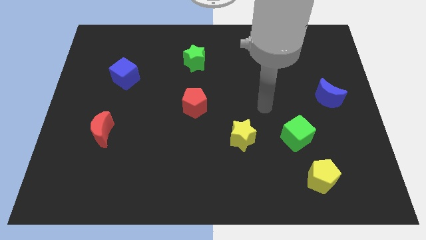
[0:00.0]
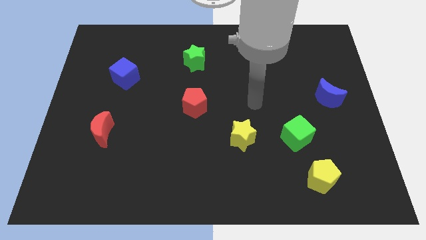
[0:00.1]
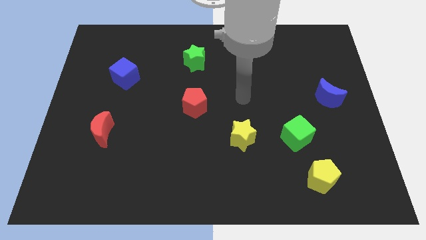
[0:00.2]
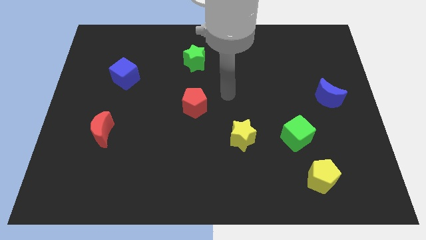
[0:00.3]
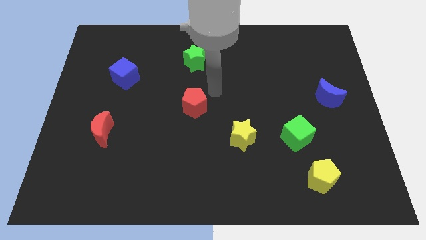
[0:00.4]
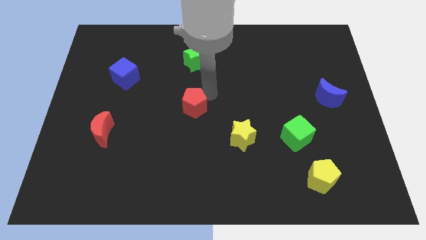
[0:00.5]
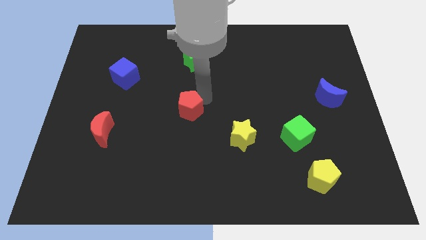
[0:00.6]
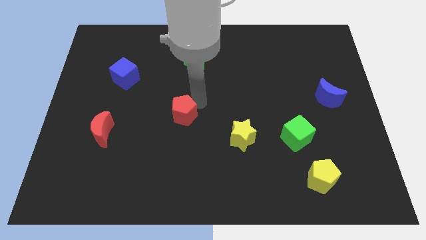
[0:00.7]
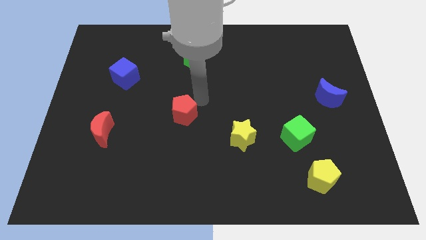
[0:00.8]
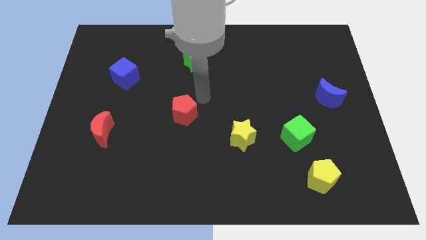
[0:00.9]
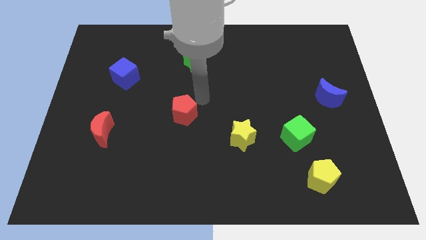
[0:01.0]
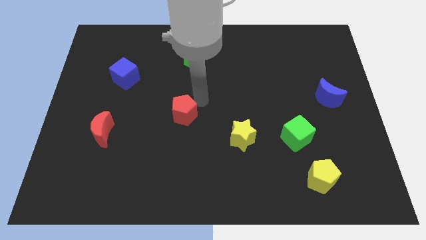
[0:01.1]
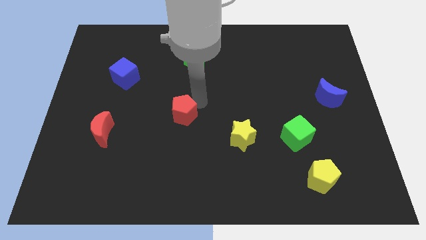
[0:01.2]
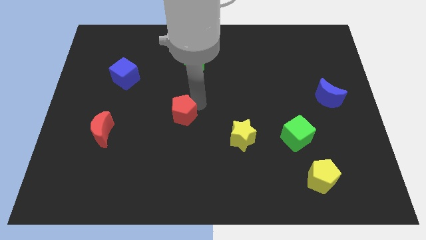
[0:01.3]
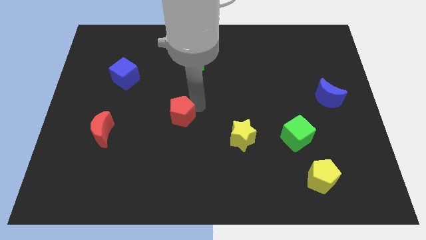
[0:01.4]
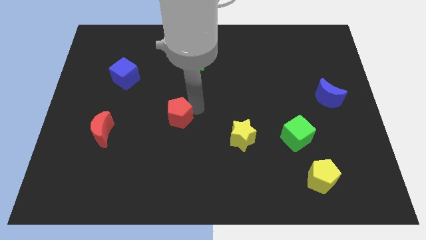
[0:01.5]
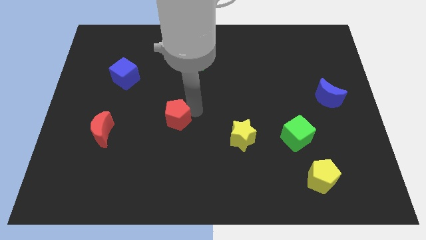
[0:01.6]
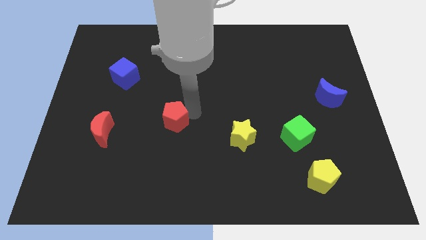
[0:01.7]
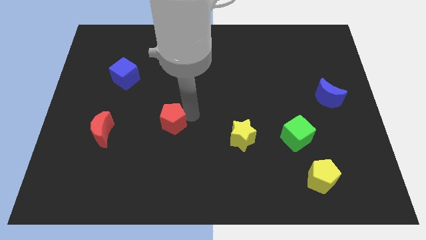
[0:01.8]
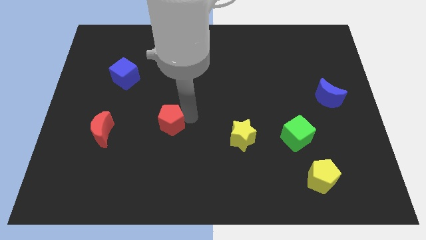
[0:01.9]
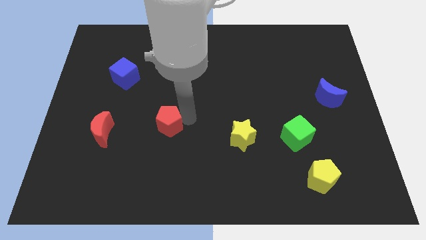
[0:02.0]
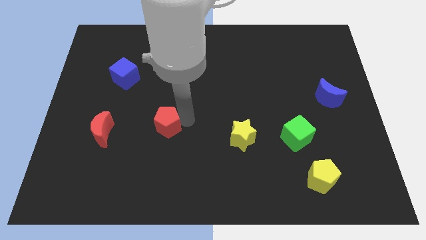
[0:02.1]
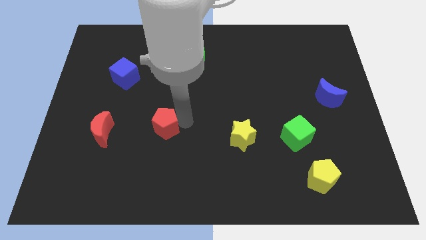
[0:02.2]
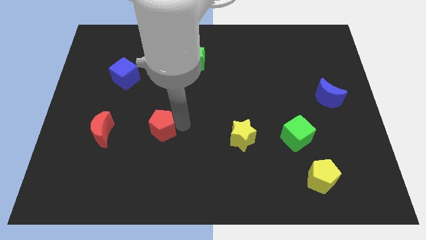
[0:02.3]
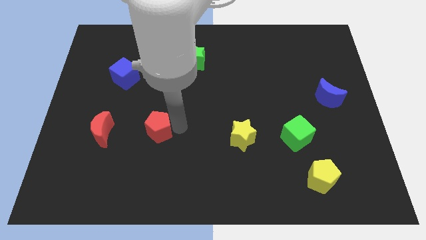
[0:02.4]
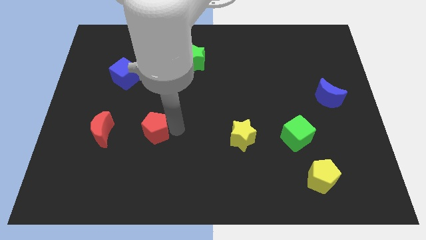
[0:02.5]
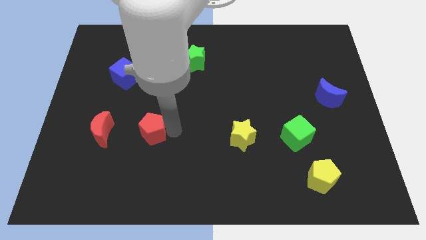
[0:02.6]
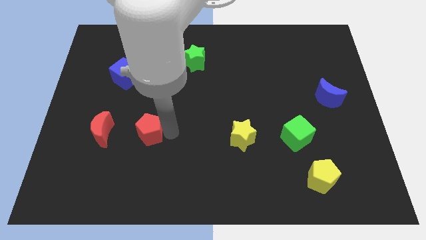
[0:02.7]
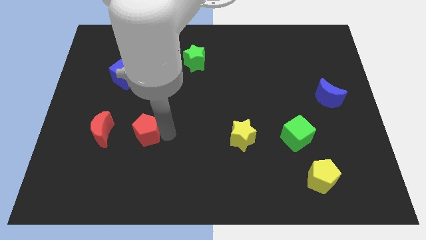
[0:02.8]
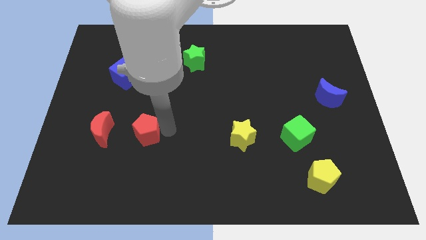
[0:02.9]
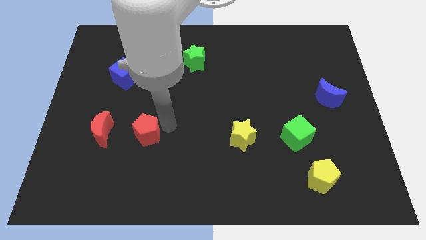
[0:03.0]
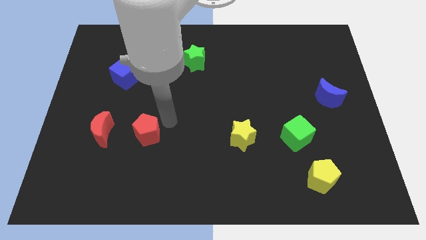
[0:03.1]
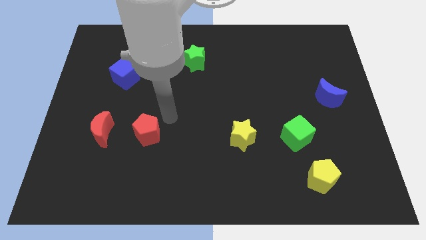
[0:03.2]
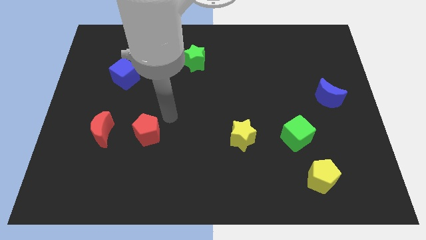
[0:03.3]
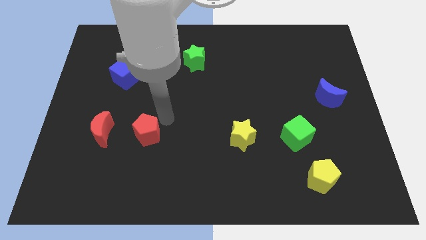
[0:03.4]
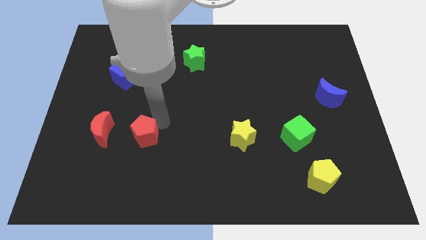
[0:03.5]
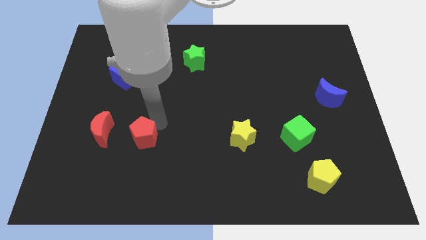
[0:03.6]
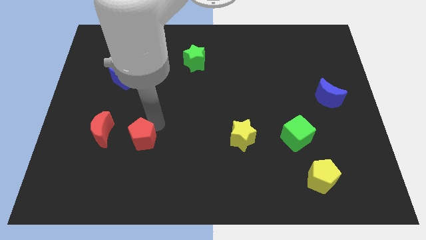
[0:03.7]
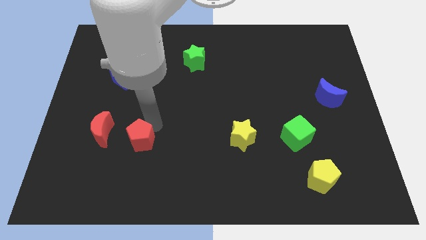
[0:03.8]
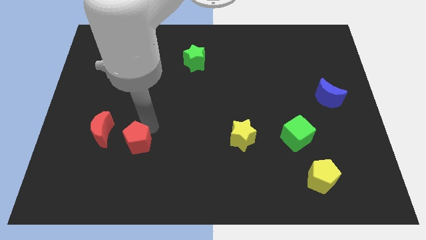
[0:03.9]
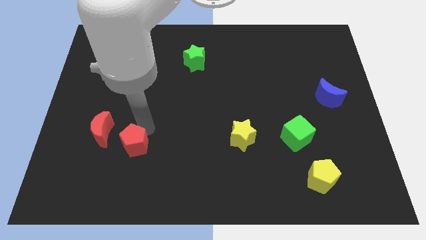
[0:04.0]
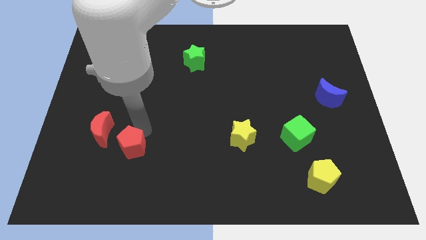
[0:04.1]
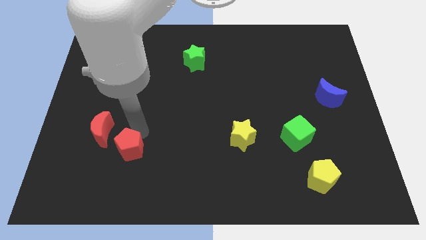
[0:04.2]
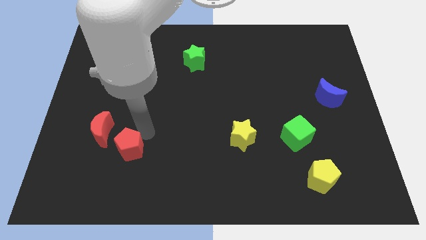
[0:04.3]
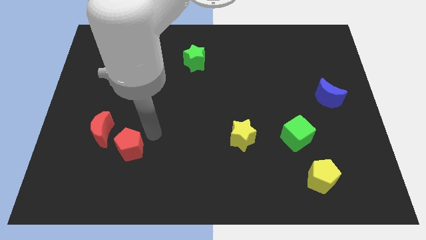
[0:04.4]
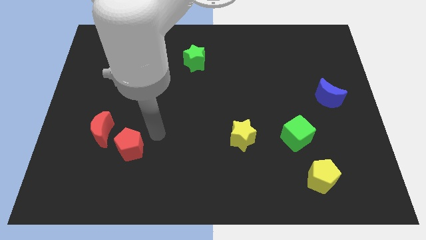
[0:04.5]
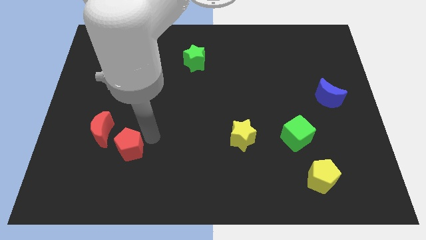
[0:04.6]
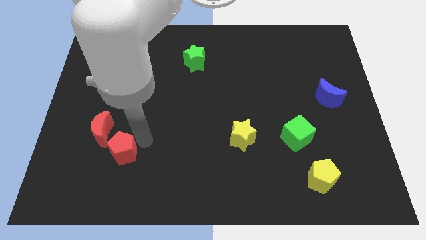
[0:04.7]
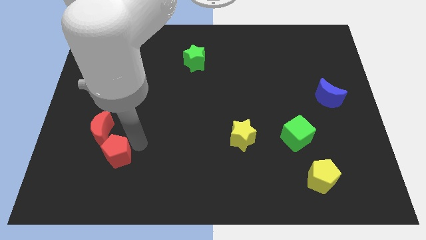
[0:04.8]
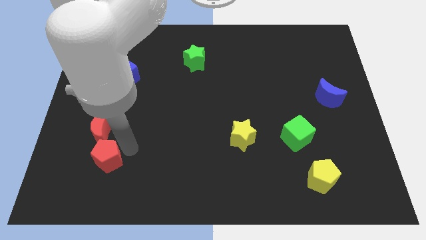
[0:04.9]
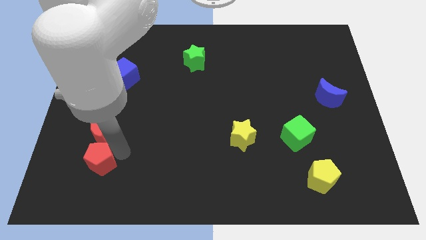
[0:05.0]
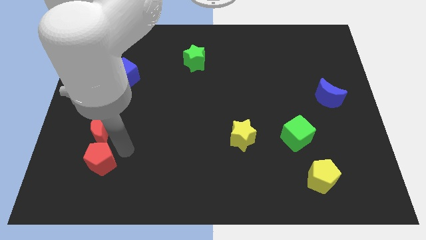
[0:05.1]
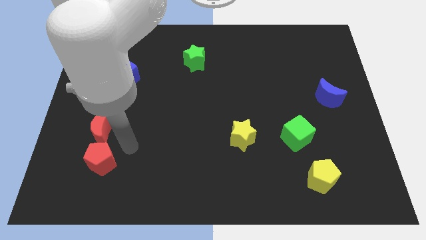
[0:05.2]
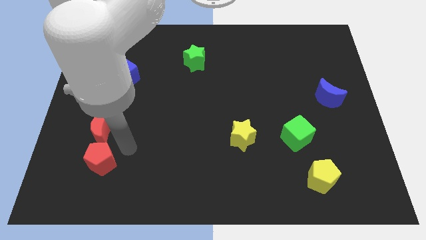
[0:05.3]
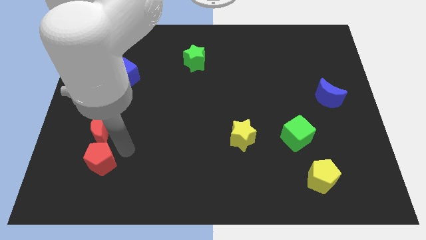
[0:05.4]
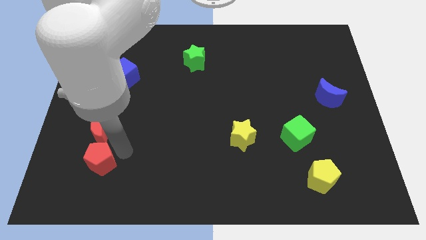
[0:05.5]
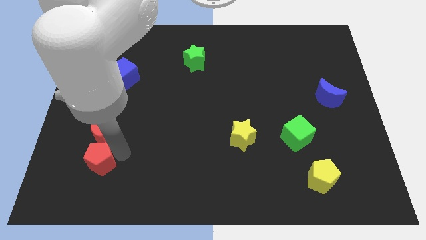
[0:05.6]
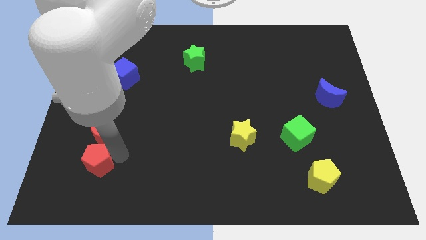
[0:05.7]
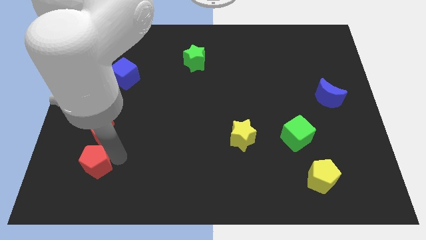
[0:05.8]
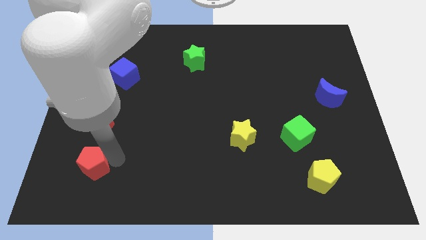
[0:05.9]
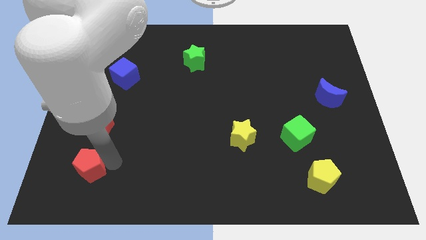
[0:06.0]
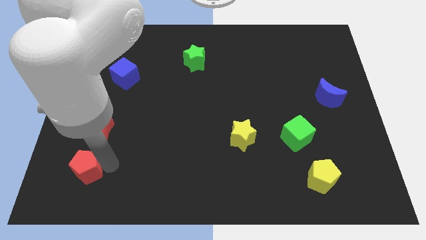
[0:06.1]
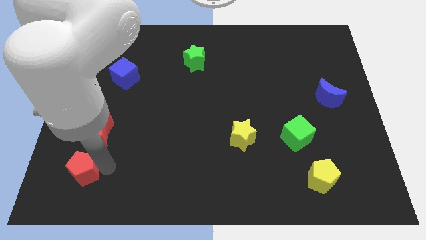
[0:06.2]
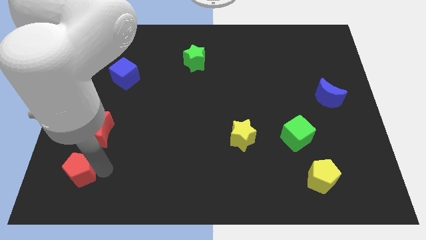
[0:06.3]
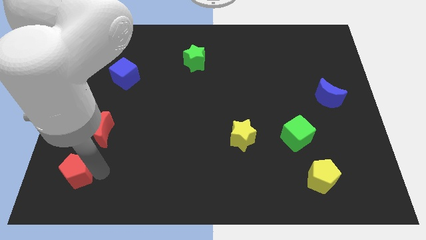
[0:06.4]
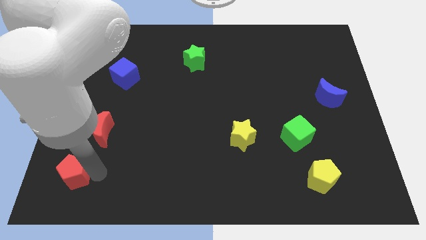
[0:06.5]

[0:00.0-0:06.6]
push the red pentagon to the lower left corner

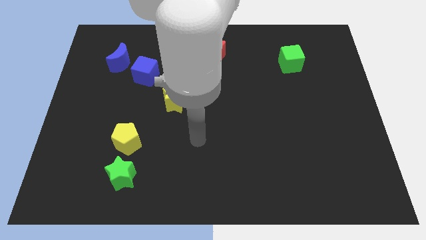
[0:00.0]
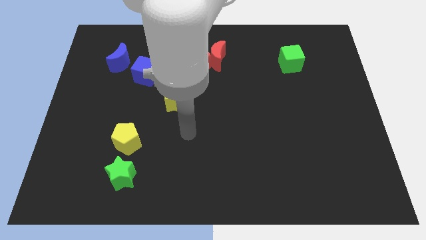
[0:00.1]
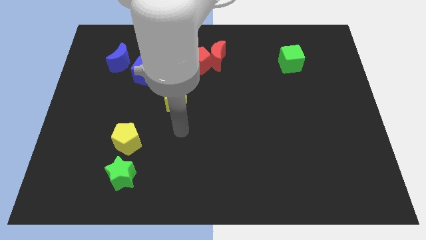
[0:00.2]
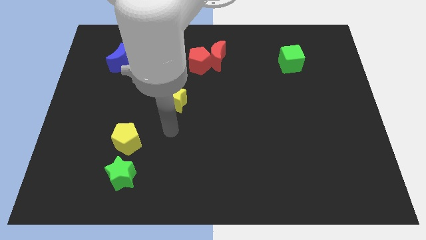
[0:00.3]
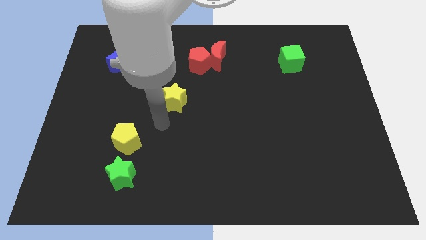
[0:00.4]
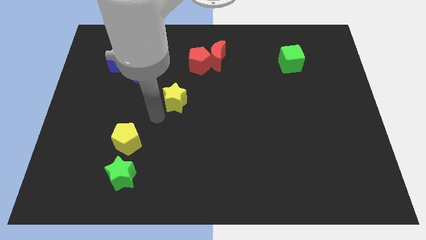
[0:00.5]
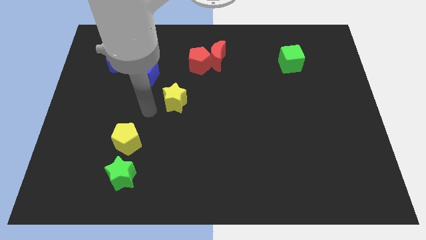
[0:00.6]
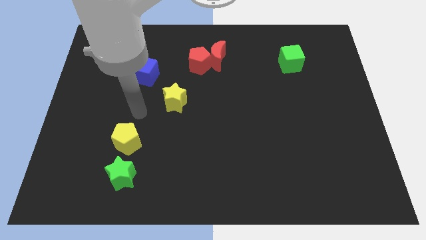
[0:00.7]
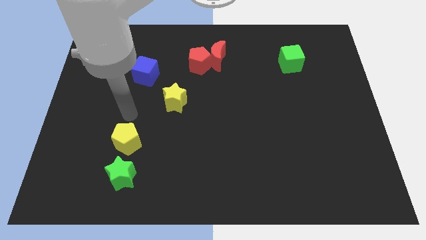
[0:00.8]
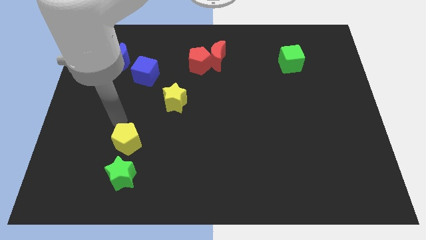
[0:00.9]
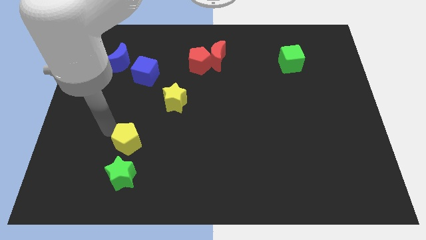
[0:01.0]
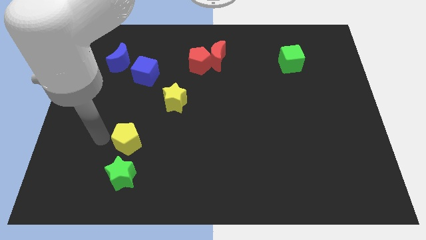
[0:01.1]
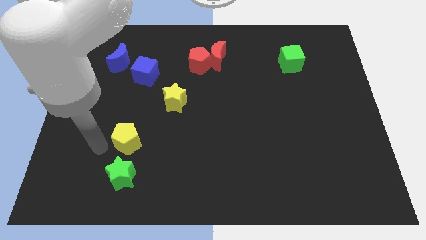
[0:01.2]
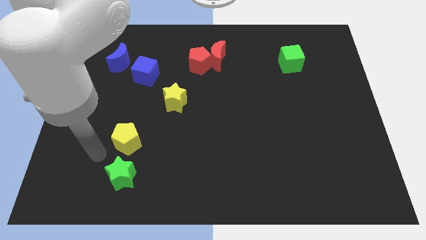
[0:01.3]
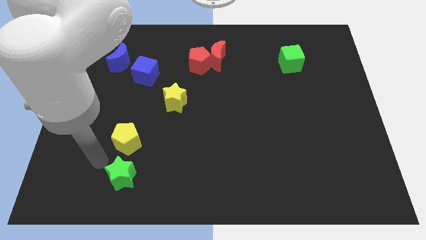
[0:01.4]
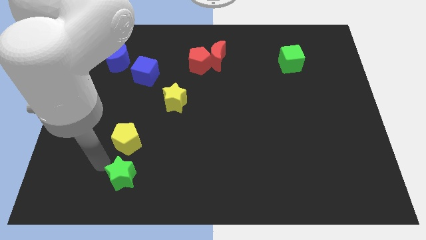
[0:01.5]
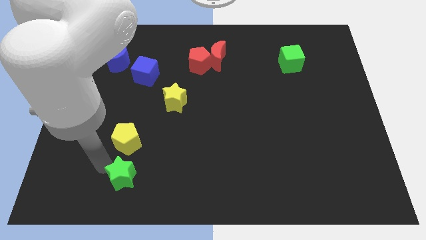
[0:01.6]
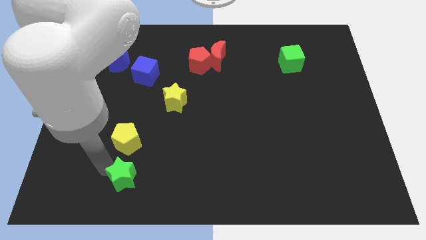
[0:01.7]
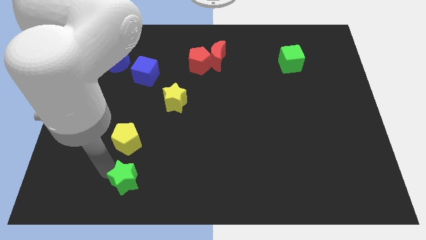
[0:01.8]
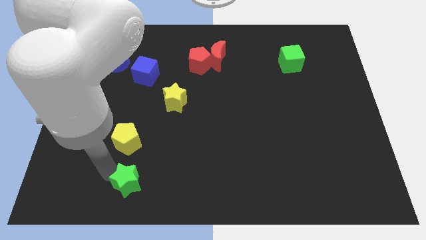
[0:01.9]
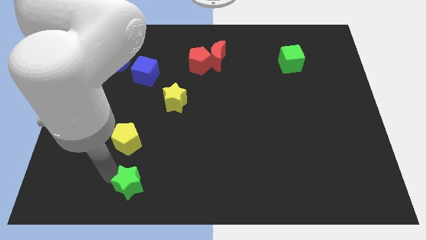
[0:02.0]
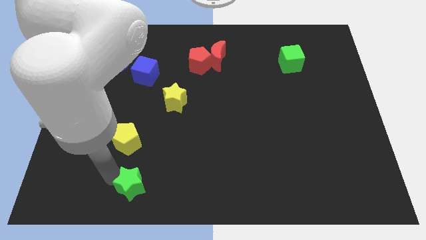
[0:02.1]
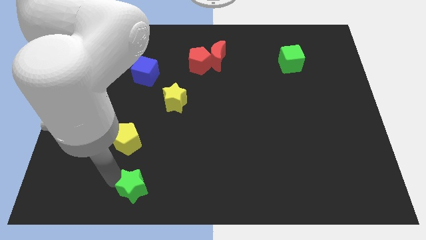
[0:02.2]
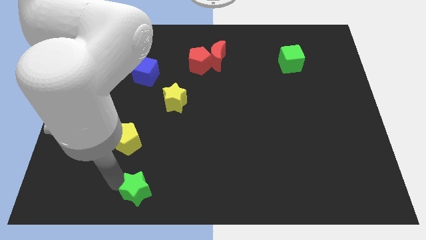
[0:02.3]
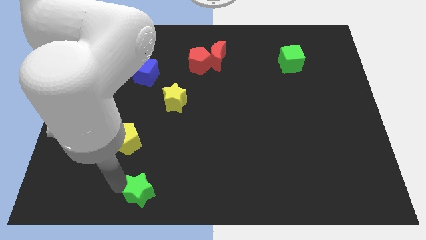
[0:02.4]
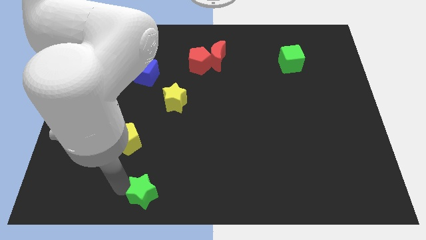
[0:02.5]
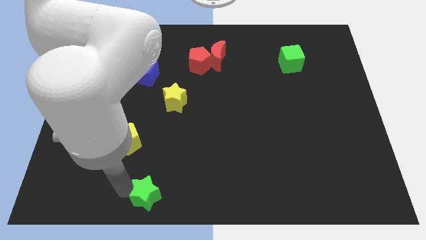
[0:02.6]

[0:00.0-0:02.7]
move the green star to the bottom side
